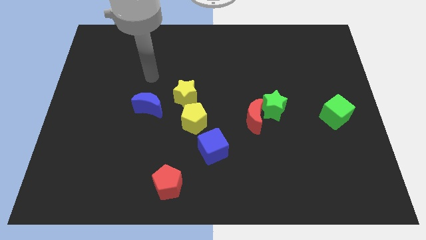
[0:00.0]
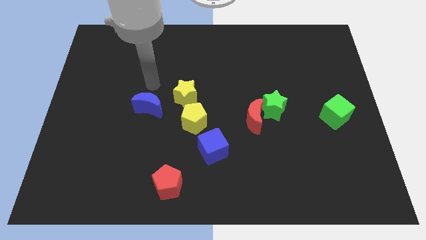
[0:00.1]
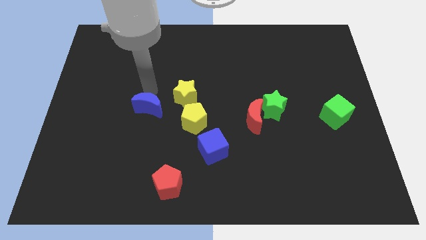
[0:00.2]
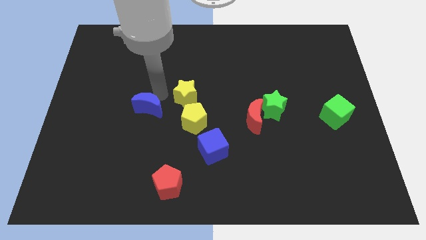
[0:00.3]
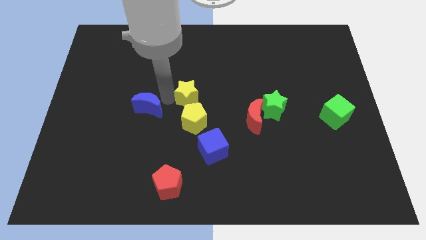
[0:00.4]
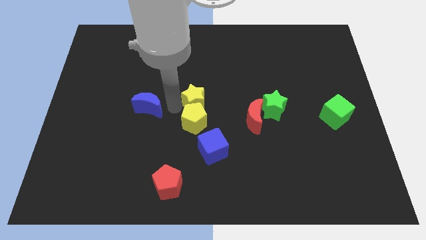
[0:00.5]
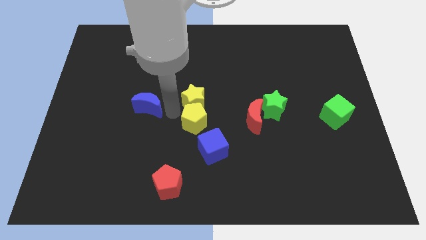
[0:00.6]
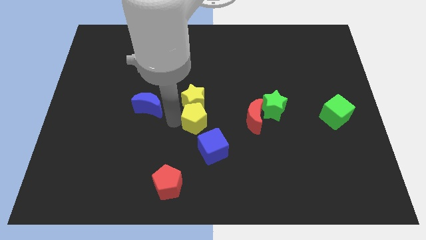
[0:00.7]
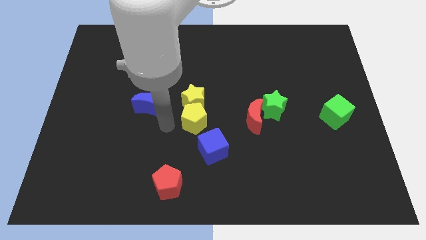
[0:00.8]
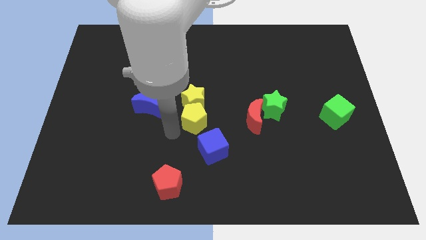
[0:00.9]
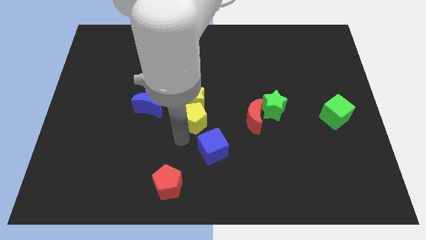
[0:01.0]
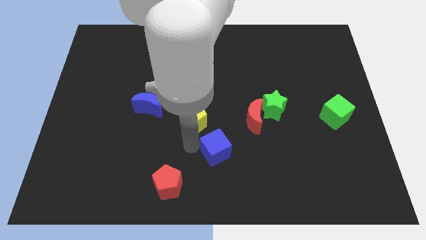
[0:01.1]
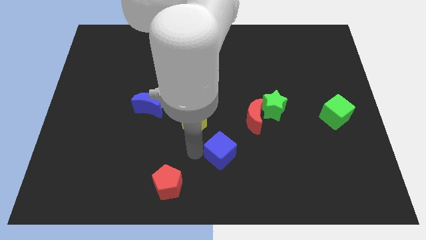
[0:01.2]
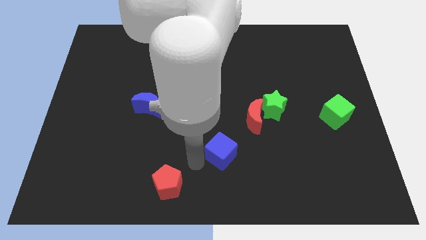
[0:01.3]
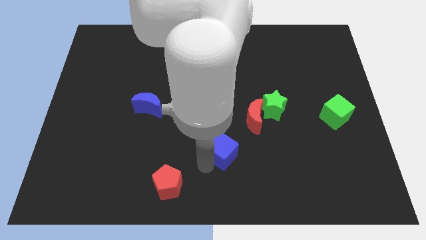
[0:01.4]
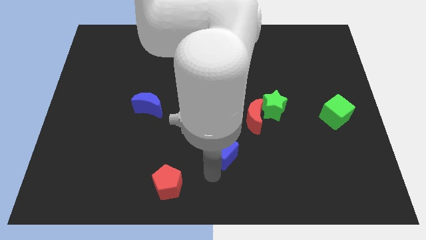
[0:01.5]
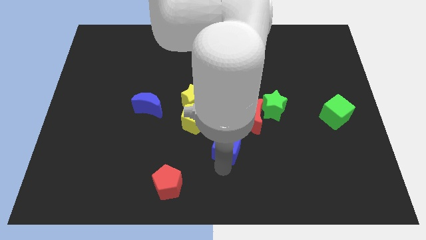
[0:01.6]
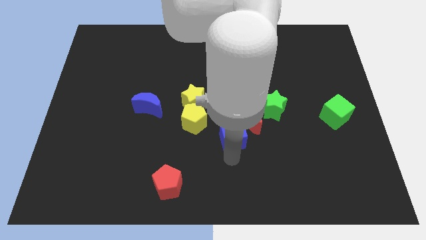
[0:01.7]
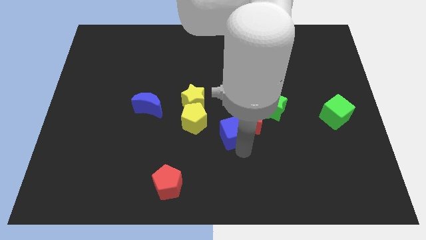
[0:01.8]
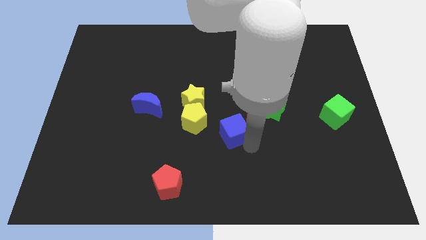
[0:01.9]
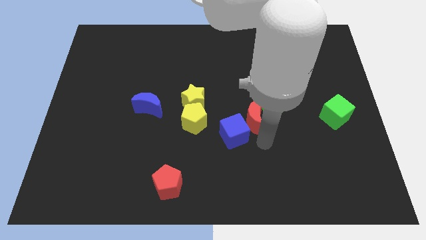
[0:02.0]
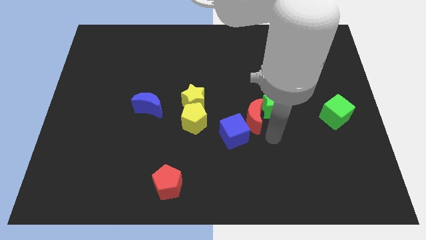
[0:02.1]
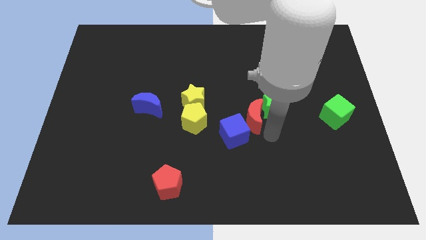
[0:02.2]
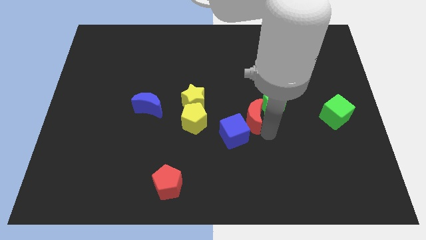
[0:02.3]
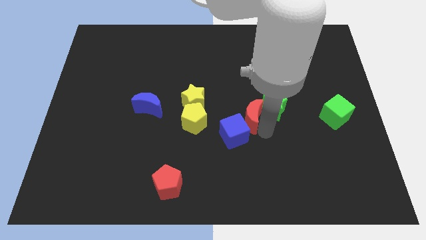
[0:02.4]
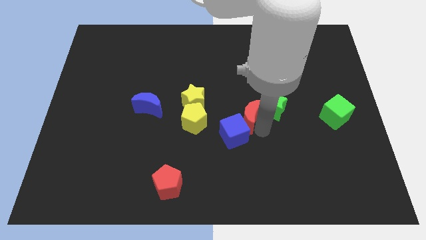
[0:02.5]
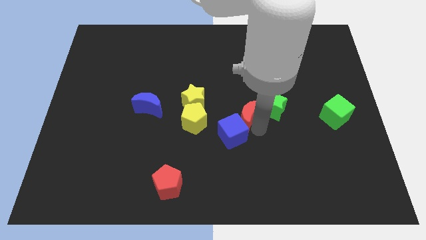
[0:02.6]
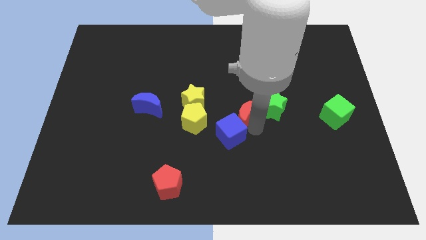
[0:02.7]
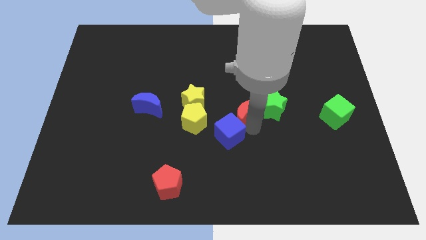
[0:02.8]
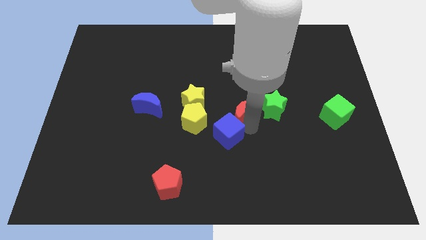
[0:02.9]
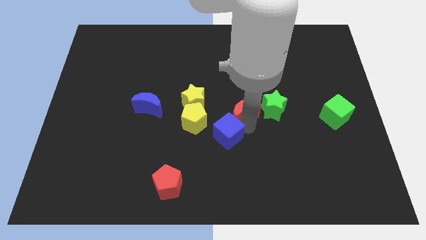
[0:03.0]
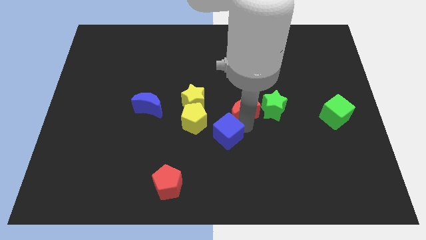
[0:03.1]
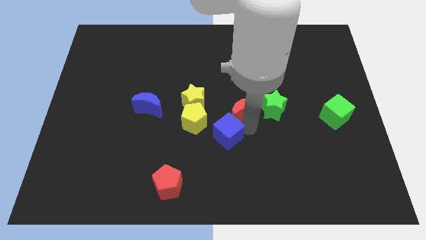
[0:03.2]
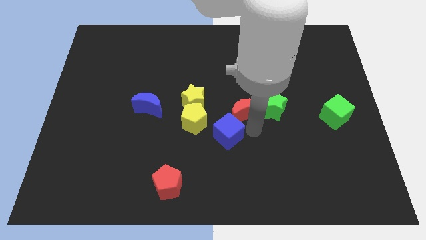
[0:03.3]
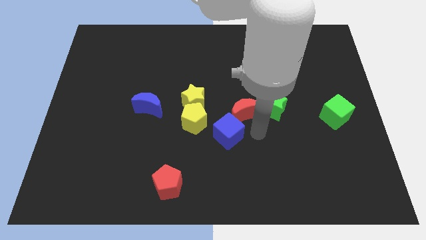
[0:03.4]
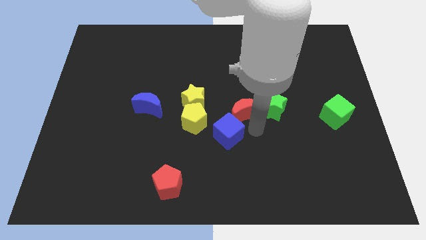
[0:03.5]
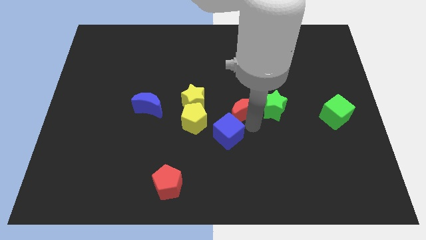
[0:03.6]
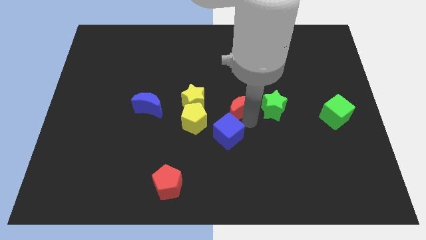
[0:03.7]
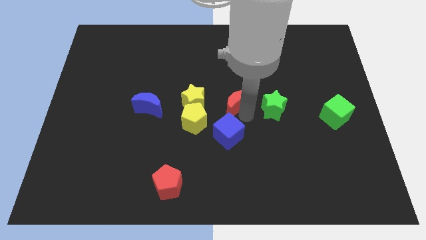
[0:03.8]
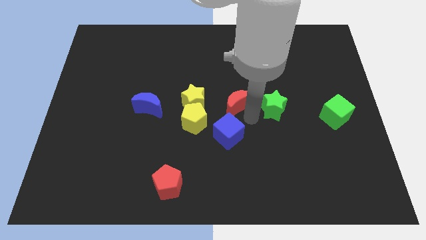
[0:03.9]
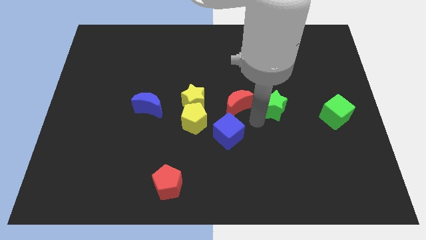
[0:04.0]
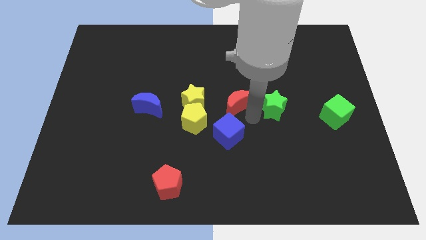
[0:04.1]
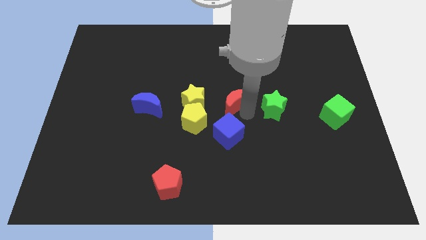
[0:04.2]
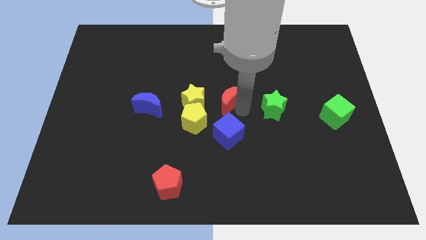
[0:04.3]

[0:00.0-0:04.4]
move the red moon upwards and left a little

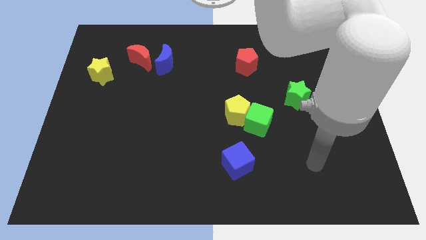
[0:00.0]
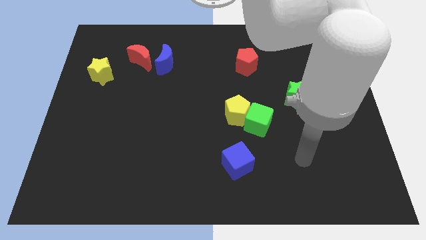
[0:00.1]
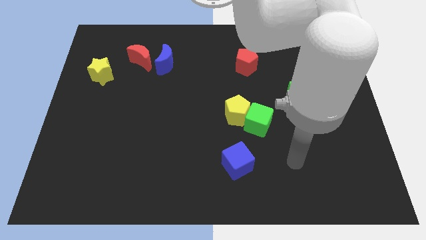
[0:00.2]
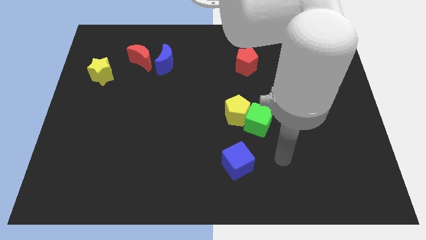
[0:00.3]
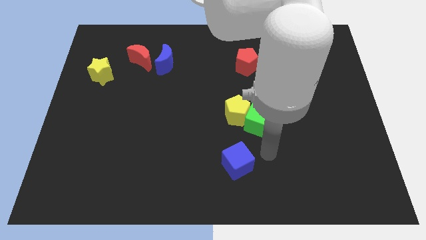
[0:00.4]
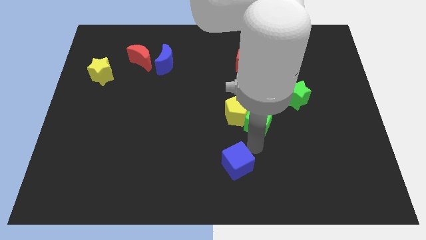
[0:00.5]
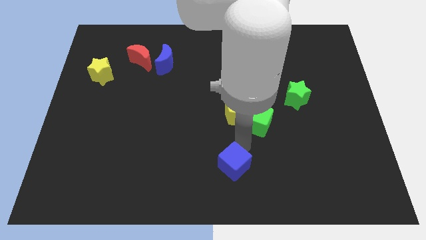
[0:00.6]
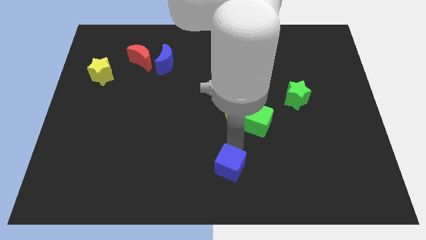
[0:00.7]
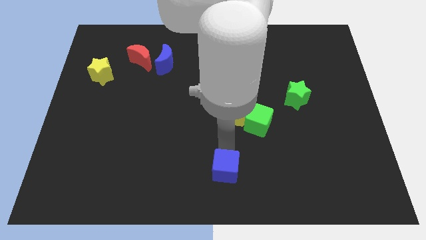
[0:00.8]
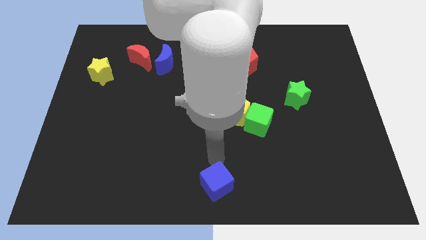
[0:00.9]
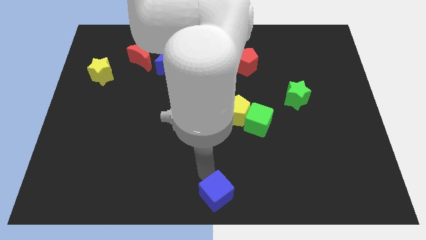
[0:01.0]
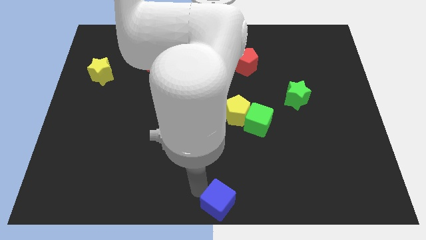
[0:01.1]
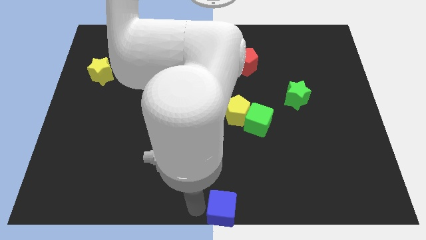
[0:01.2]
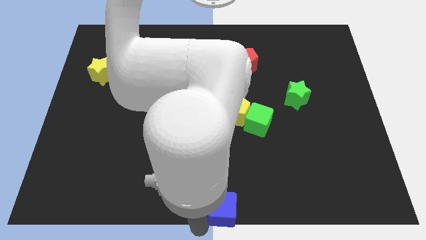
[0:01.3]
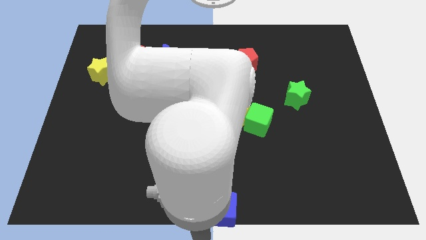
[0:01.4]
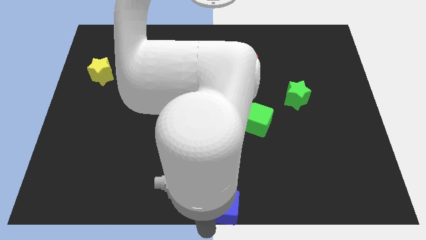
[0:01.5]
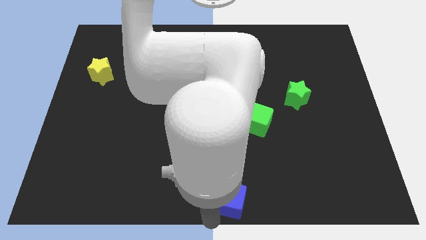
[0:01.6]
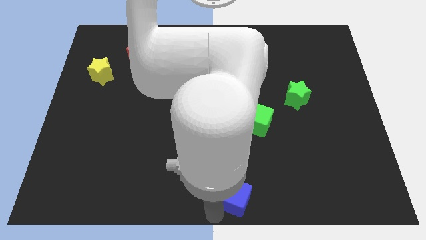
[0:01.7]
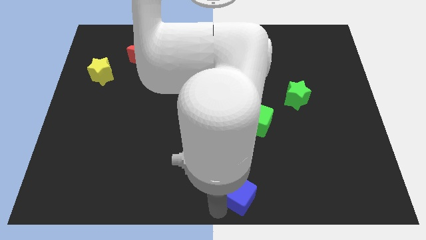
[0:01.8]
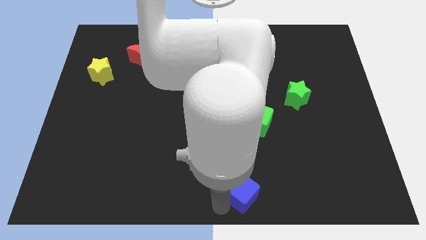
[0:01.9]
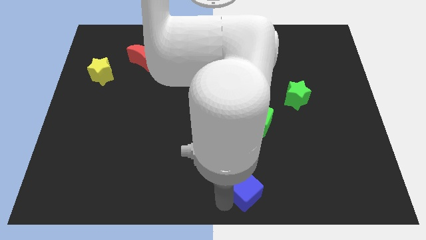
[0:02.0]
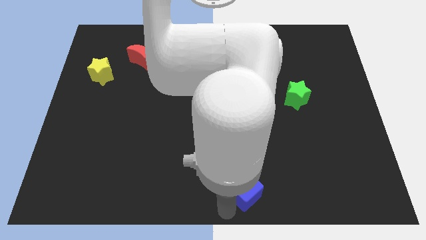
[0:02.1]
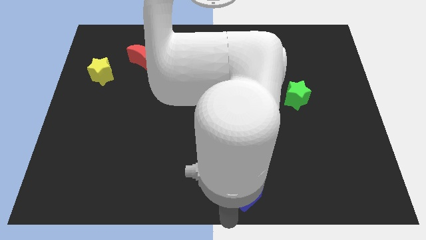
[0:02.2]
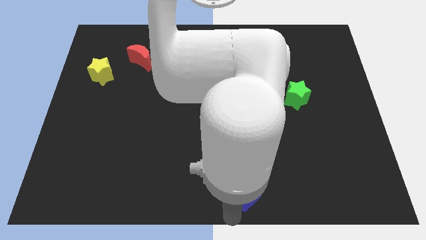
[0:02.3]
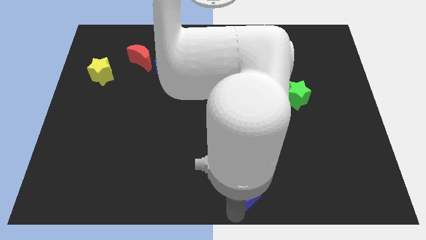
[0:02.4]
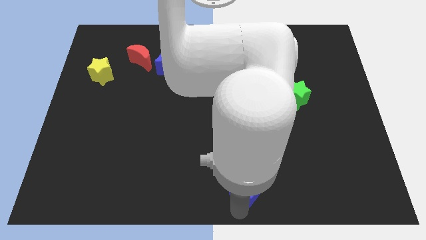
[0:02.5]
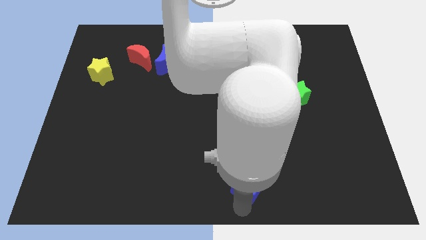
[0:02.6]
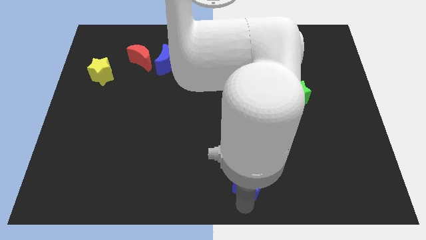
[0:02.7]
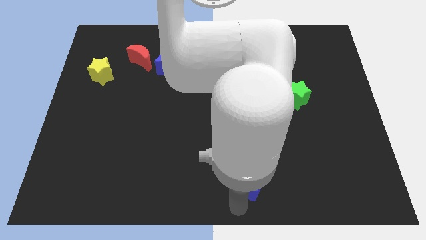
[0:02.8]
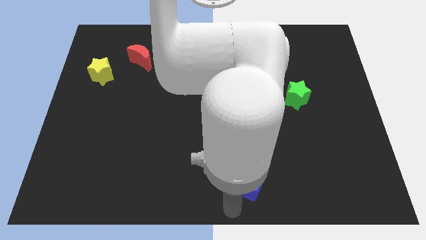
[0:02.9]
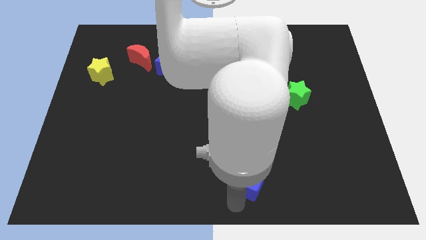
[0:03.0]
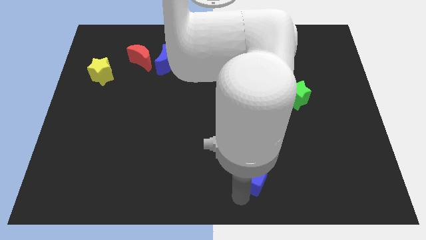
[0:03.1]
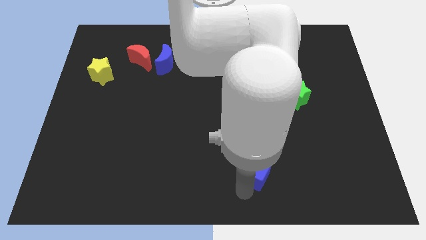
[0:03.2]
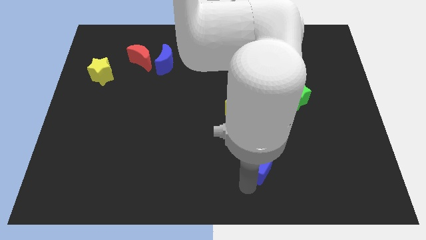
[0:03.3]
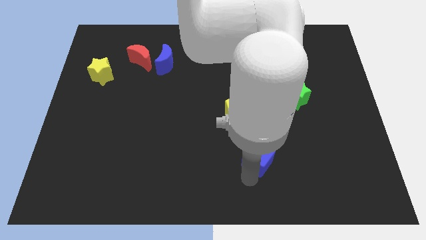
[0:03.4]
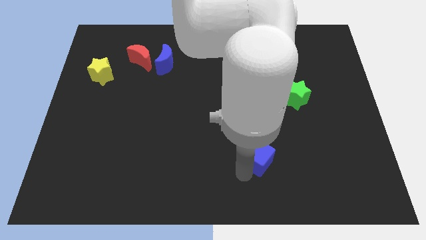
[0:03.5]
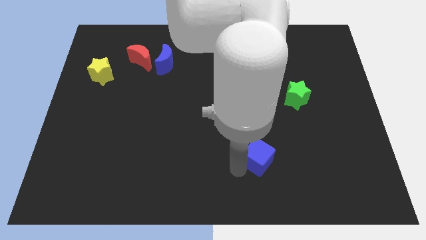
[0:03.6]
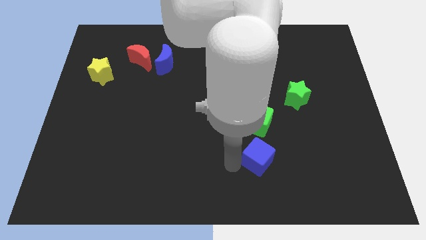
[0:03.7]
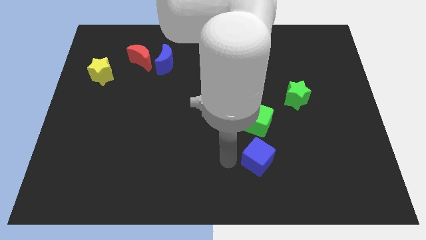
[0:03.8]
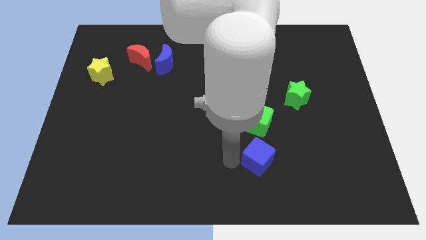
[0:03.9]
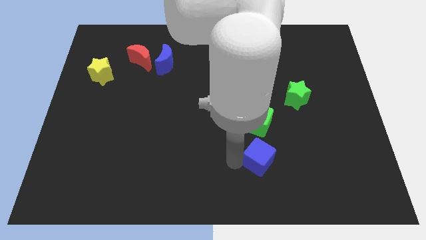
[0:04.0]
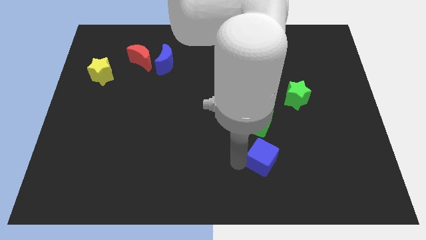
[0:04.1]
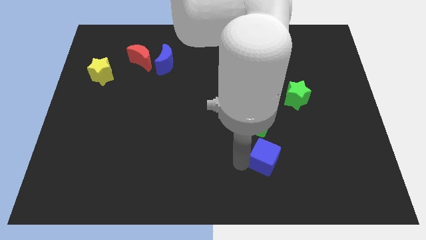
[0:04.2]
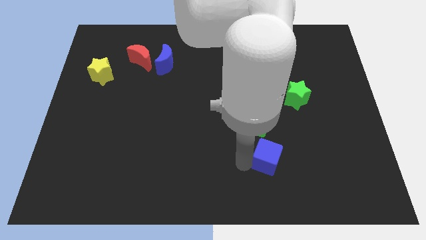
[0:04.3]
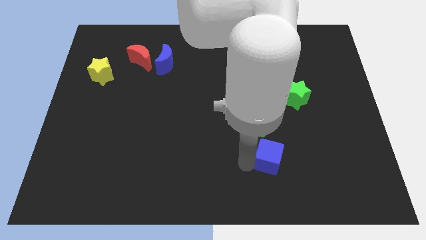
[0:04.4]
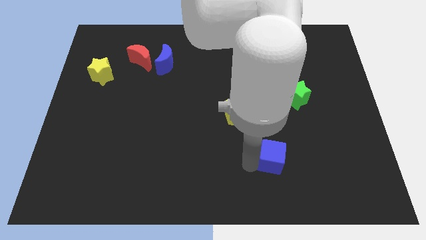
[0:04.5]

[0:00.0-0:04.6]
push the blue cube to the right somewhat
